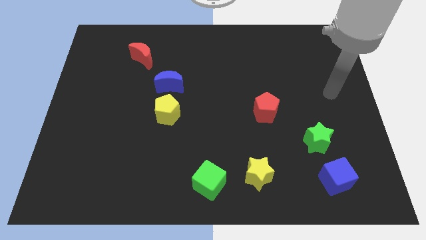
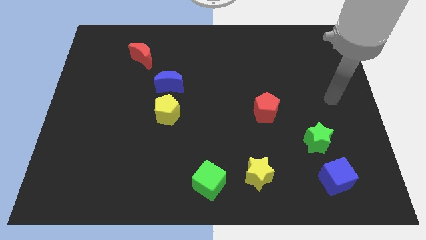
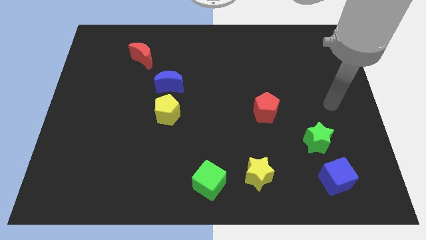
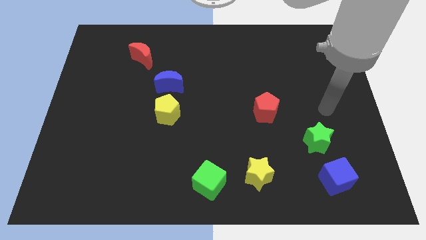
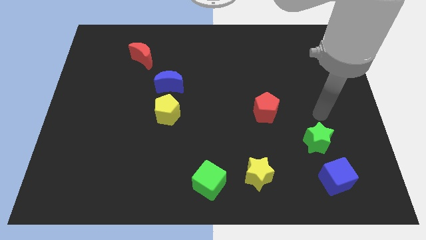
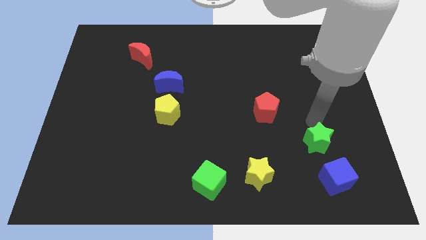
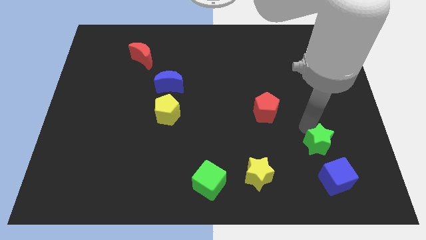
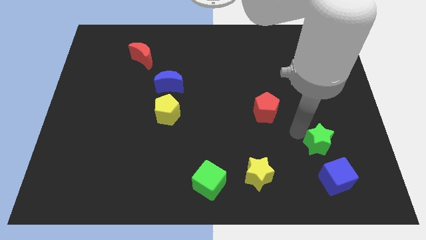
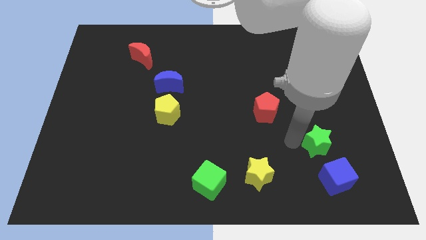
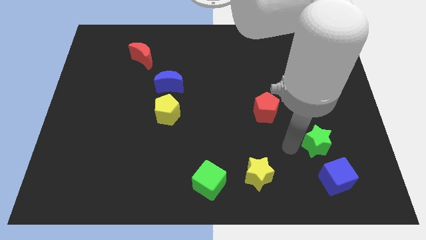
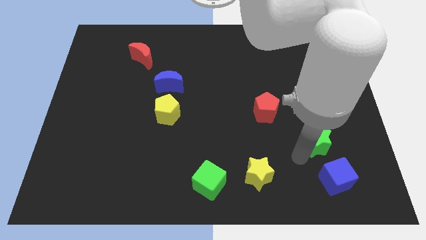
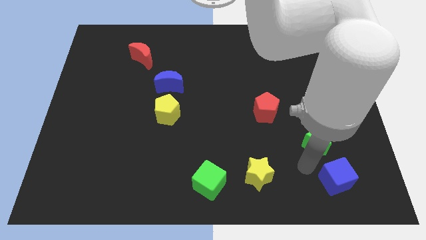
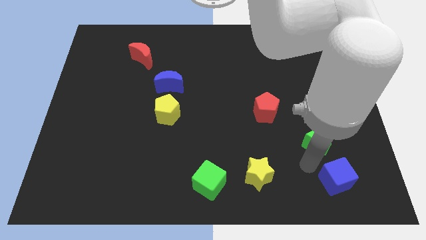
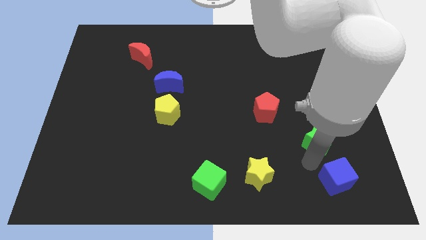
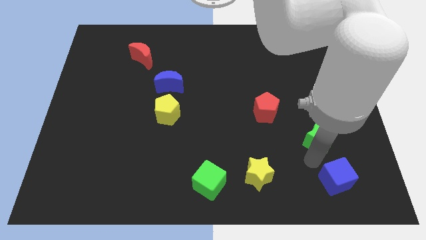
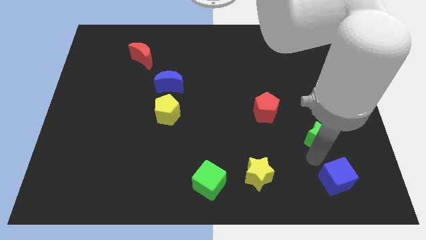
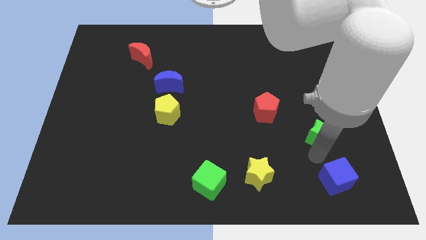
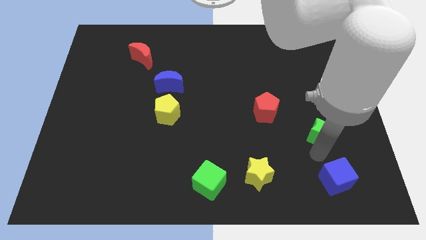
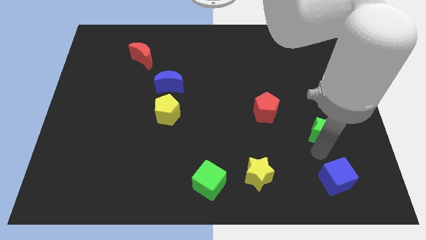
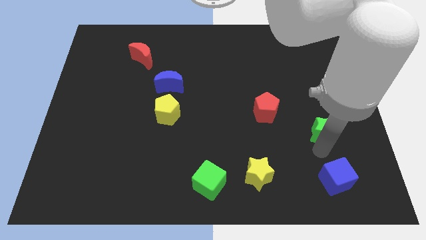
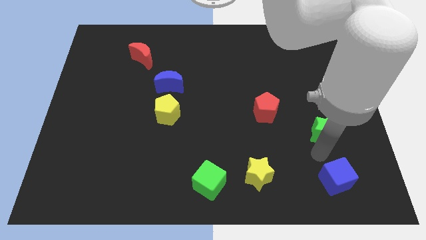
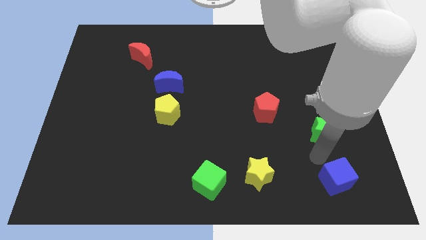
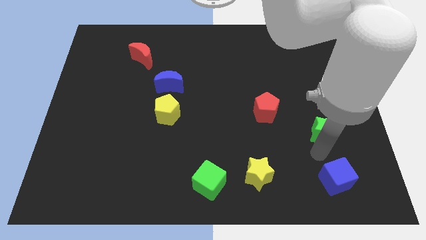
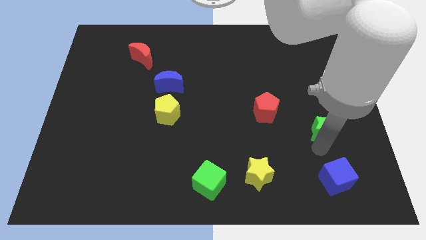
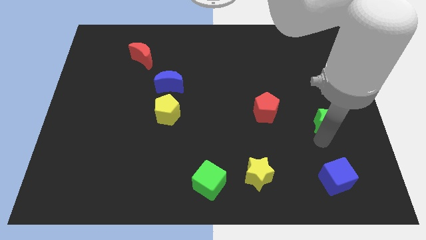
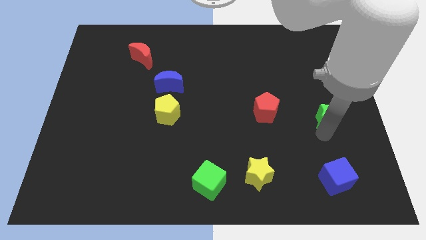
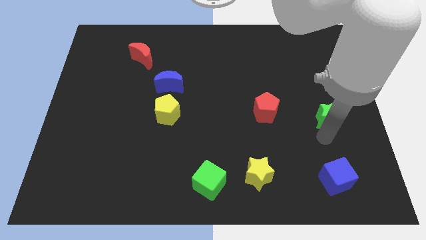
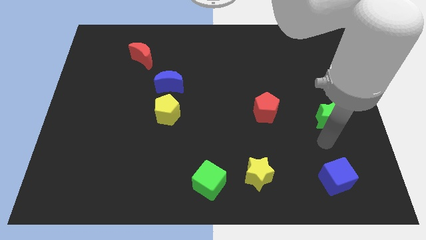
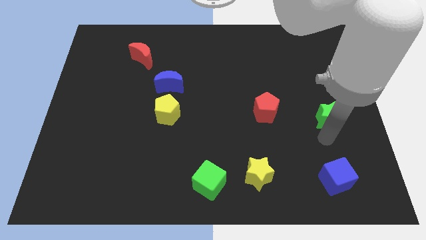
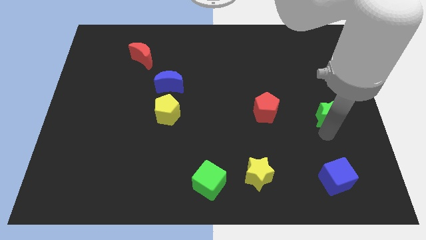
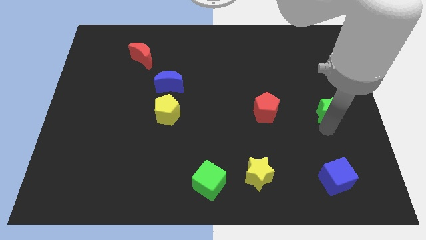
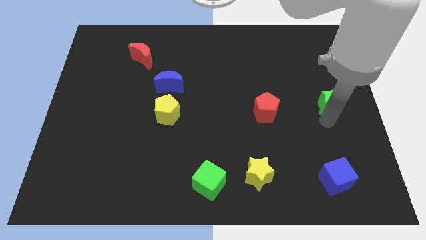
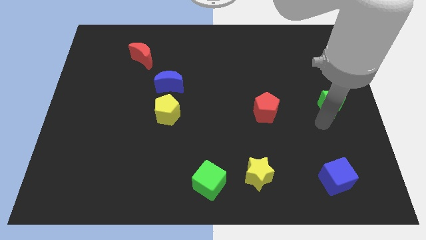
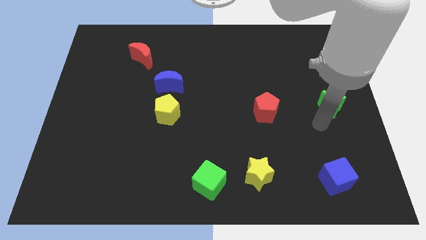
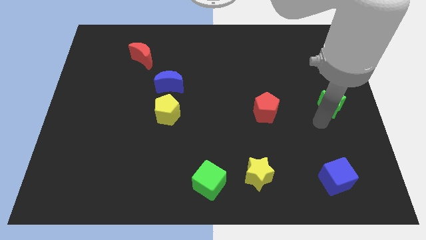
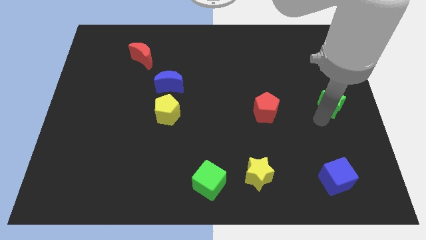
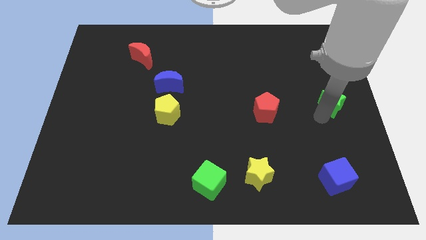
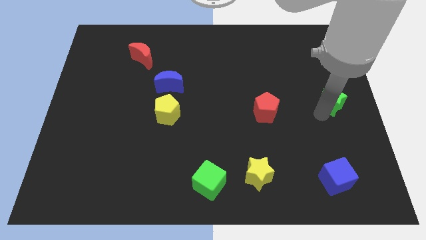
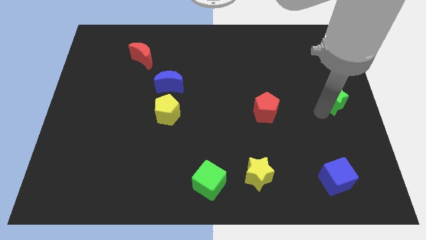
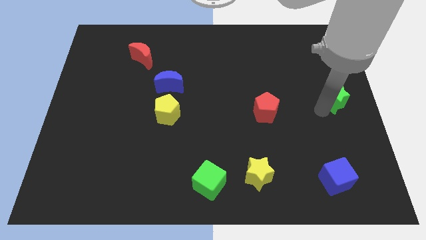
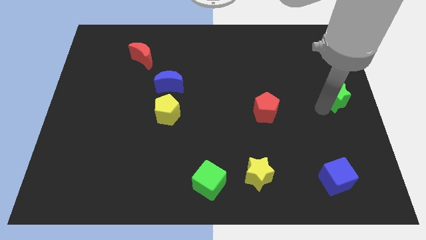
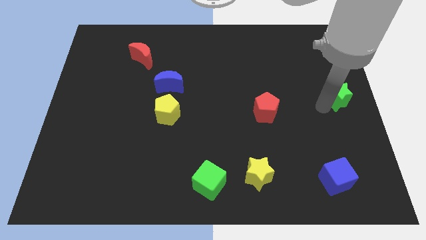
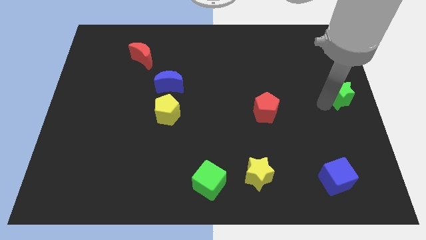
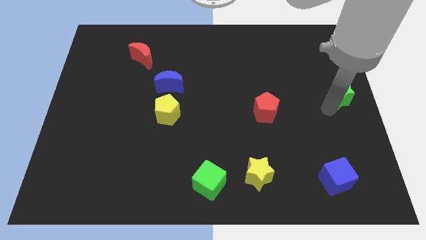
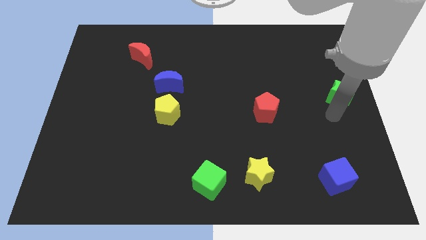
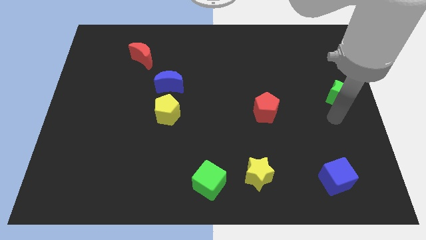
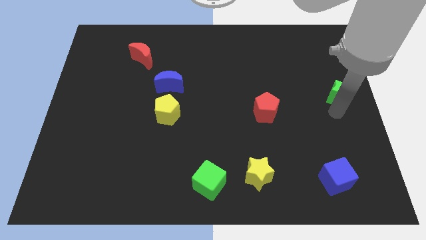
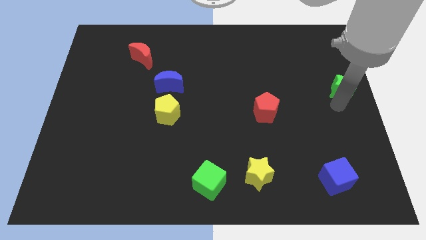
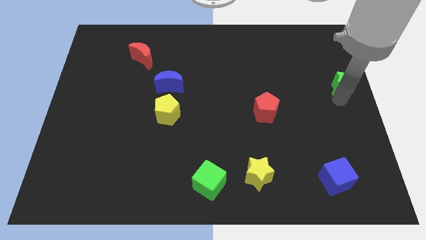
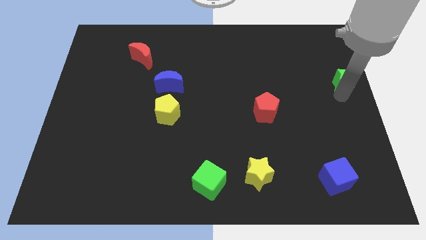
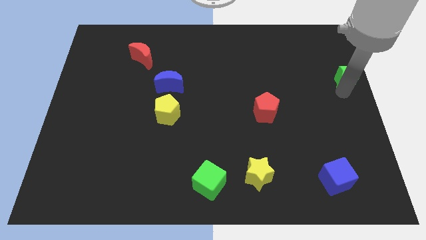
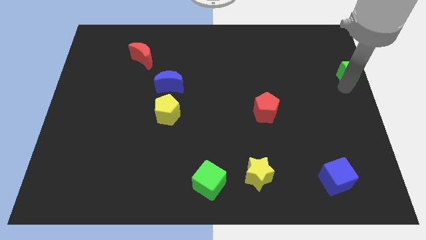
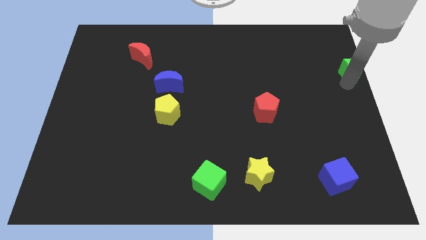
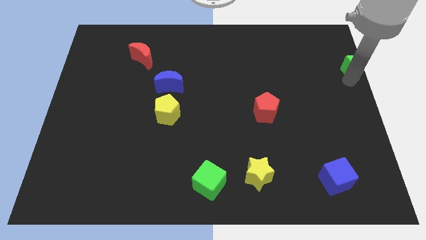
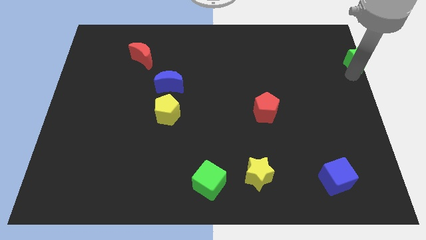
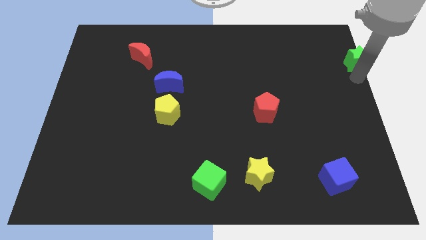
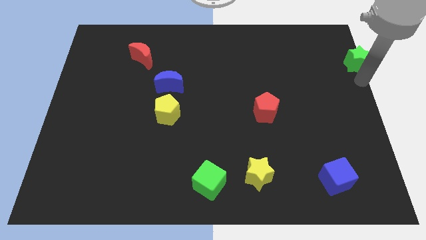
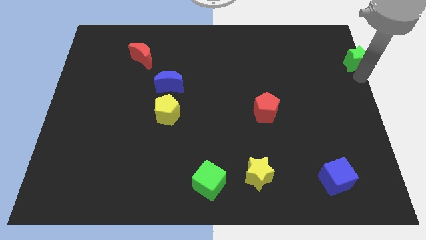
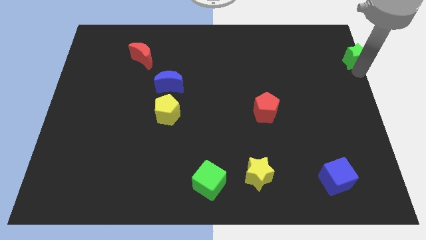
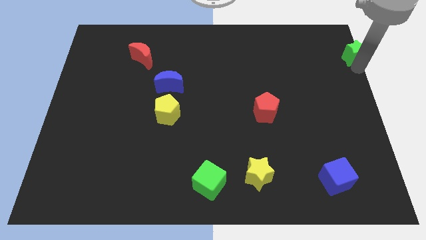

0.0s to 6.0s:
slide the green star to the upper right corner
